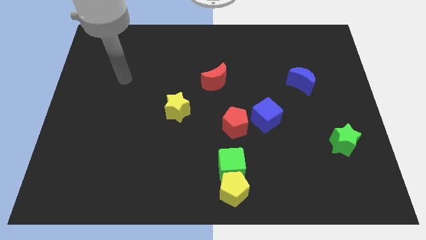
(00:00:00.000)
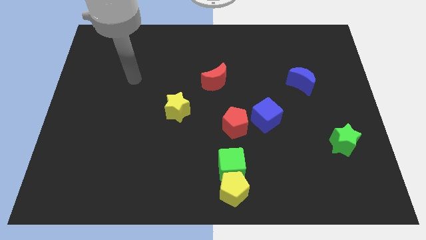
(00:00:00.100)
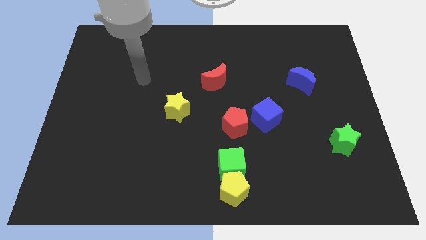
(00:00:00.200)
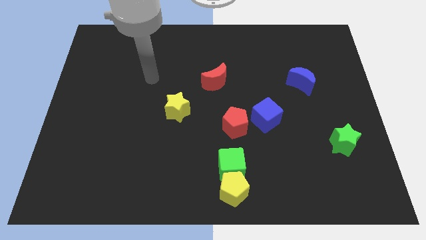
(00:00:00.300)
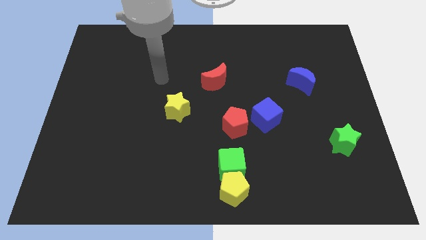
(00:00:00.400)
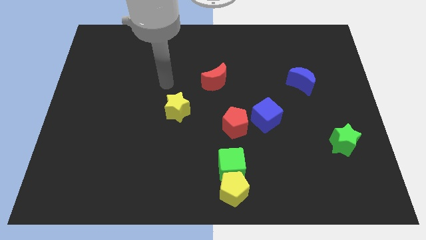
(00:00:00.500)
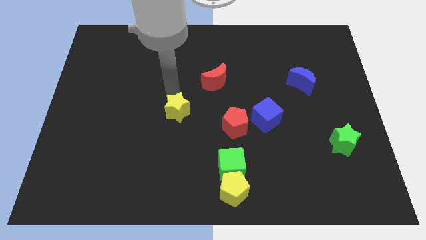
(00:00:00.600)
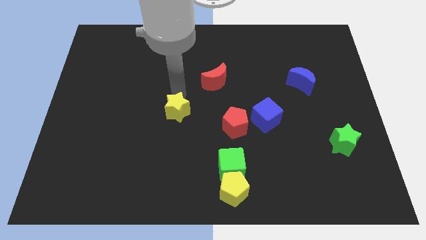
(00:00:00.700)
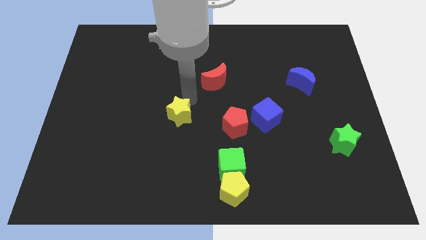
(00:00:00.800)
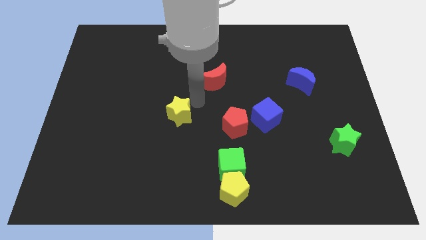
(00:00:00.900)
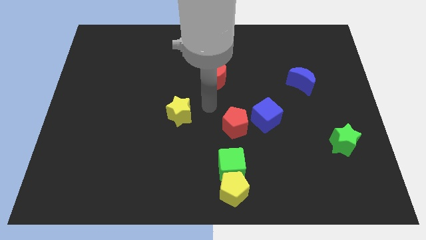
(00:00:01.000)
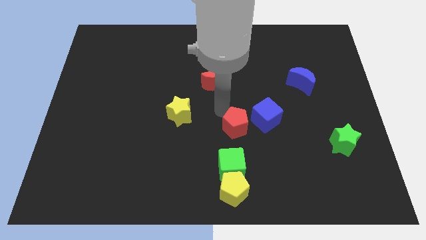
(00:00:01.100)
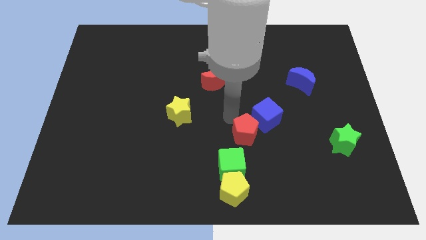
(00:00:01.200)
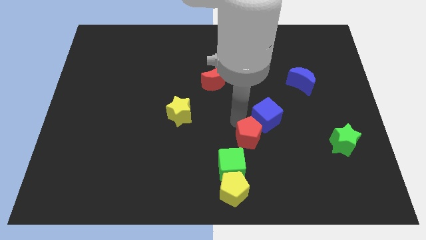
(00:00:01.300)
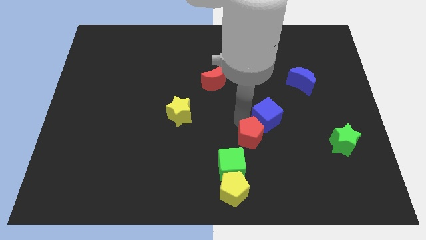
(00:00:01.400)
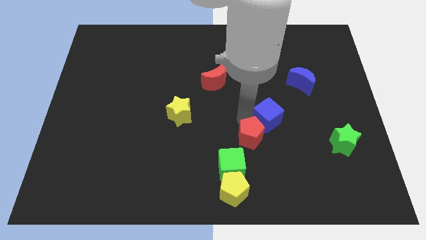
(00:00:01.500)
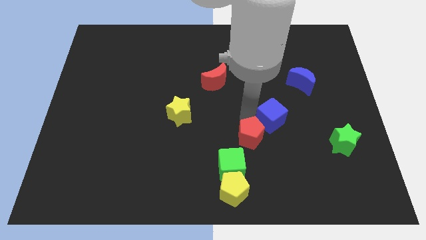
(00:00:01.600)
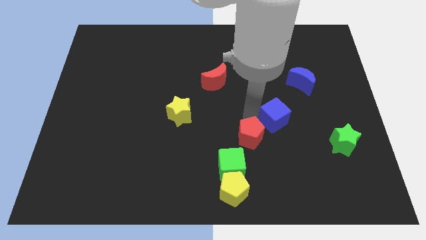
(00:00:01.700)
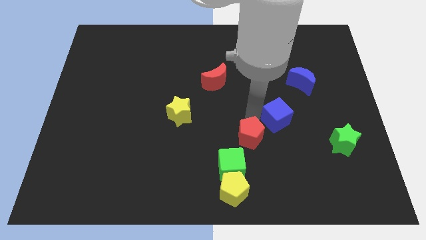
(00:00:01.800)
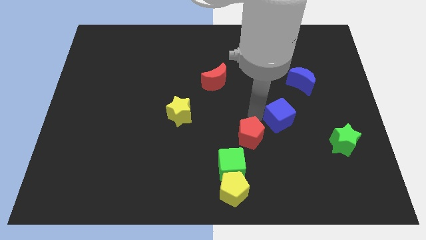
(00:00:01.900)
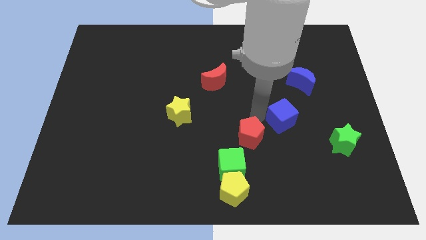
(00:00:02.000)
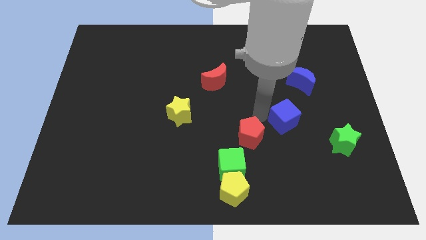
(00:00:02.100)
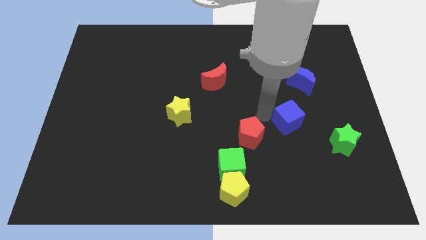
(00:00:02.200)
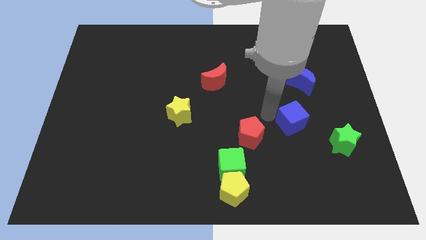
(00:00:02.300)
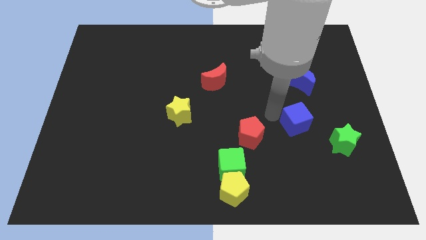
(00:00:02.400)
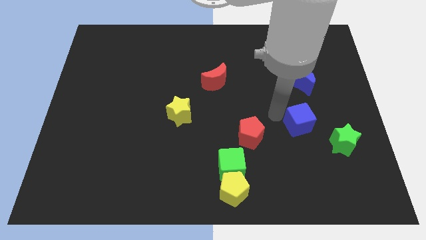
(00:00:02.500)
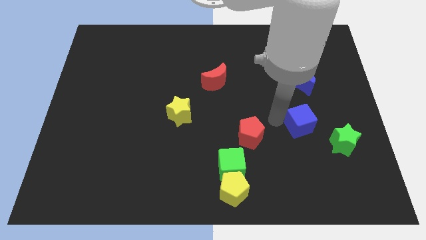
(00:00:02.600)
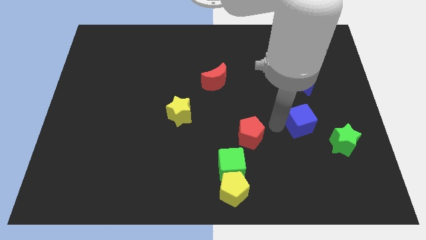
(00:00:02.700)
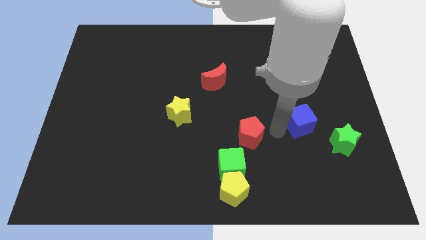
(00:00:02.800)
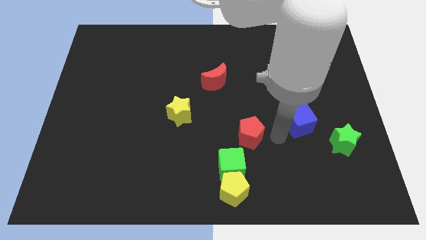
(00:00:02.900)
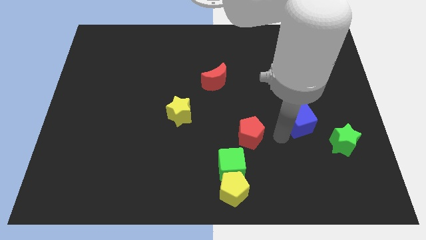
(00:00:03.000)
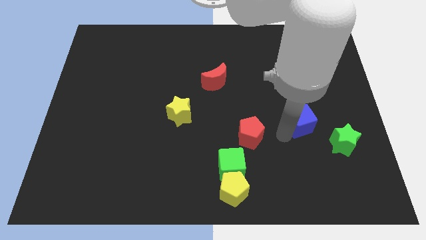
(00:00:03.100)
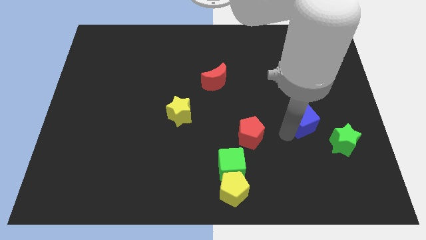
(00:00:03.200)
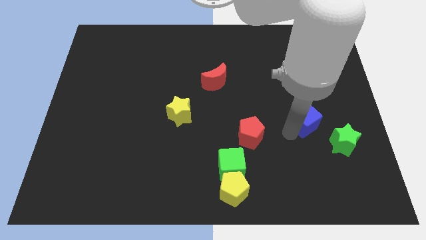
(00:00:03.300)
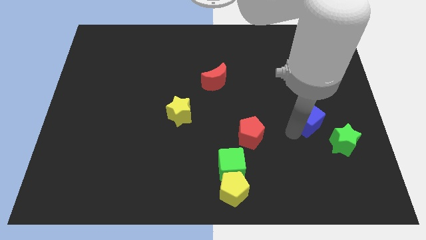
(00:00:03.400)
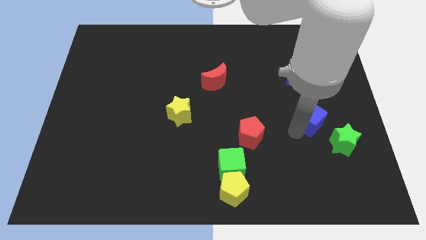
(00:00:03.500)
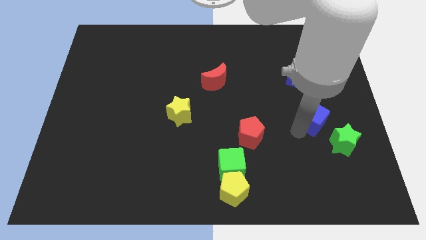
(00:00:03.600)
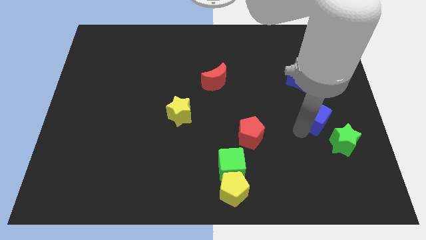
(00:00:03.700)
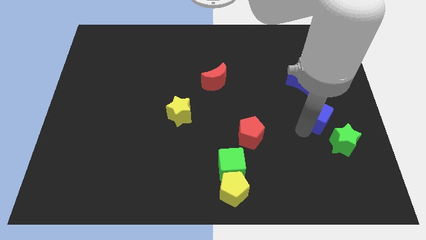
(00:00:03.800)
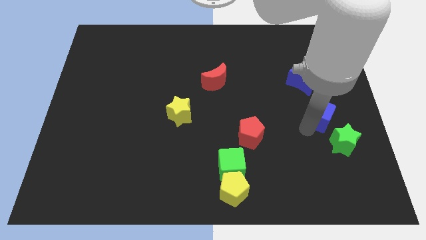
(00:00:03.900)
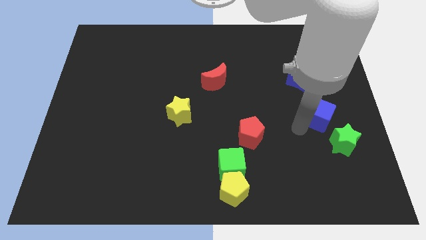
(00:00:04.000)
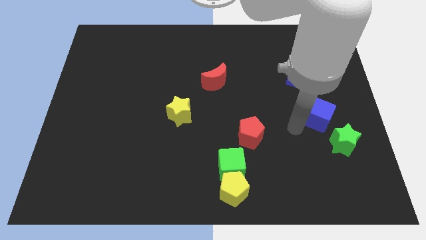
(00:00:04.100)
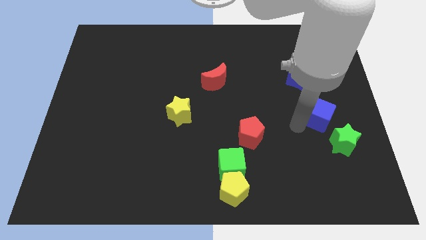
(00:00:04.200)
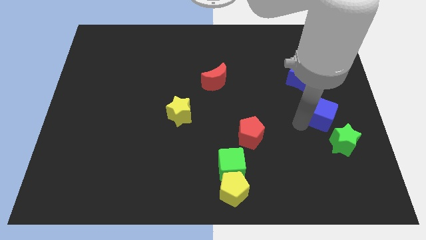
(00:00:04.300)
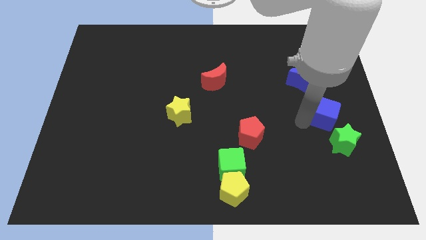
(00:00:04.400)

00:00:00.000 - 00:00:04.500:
slide the blue cube to the right side

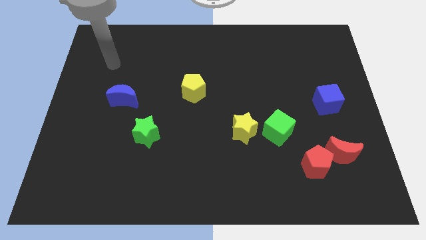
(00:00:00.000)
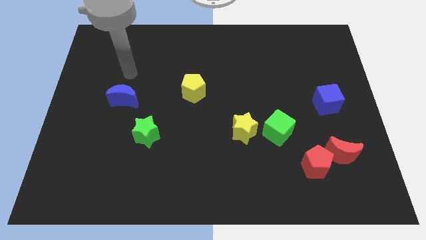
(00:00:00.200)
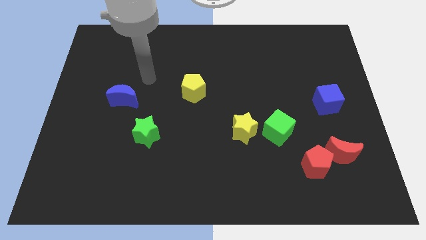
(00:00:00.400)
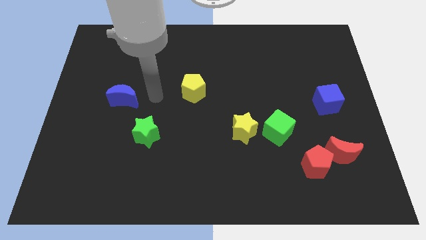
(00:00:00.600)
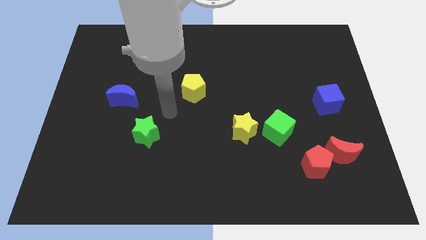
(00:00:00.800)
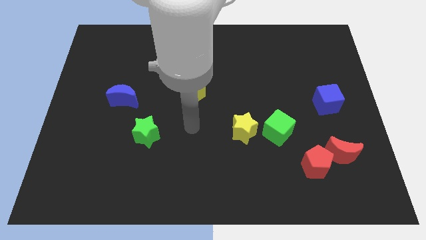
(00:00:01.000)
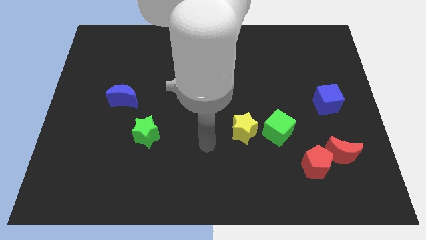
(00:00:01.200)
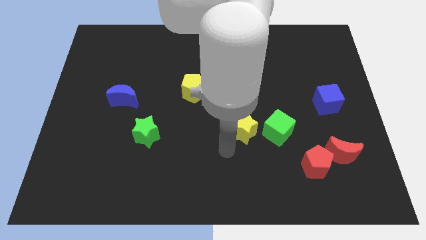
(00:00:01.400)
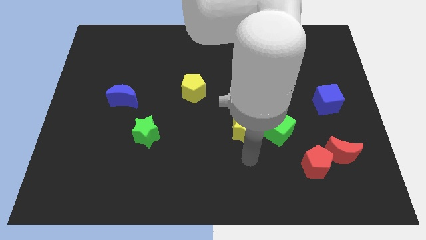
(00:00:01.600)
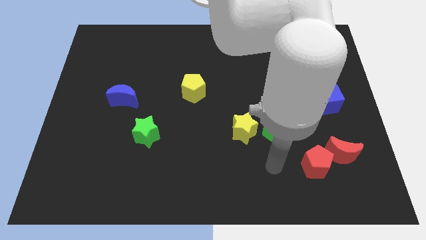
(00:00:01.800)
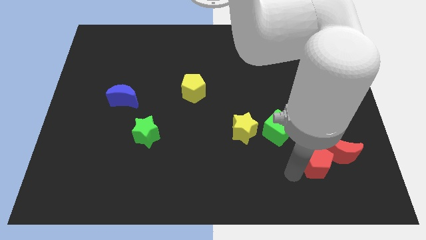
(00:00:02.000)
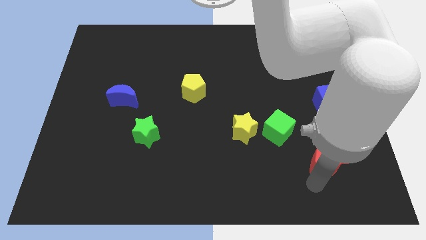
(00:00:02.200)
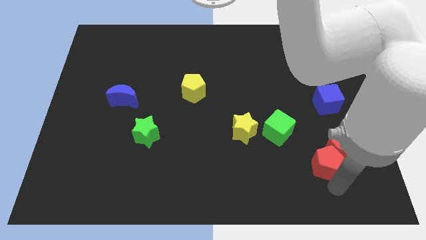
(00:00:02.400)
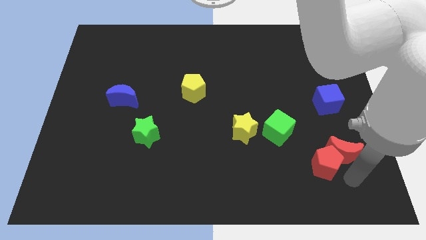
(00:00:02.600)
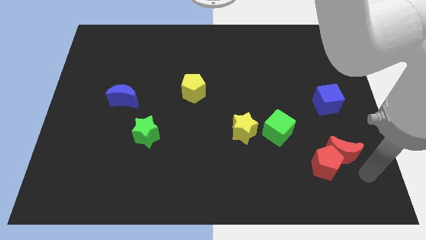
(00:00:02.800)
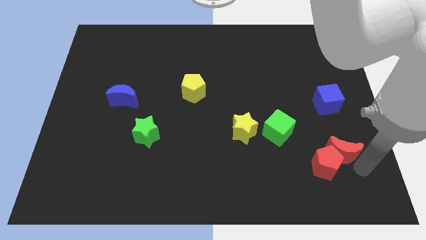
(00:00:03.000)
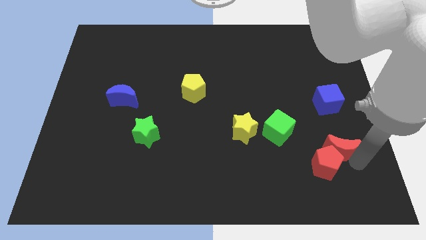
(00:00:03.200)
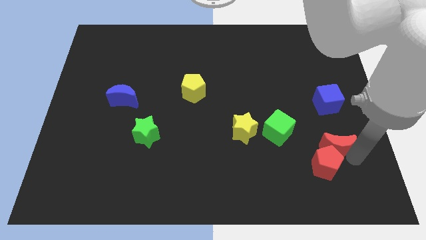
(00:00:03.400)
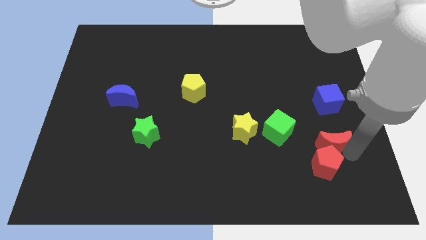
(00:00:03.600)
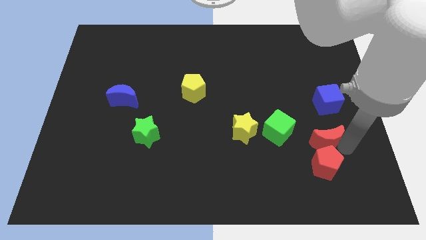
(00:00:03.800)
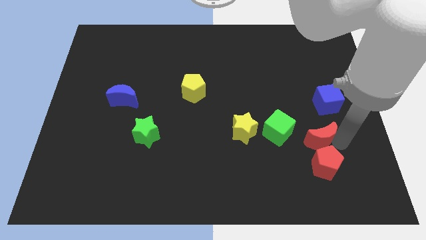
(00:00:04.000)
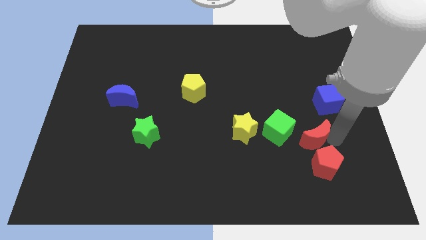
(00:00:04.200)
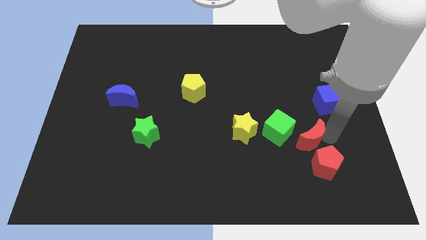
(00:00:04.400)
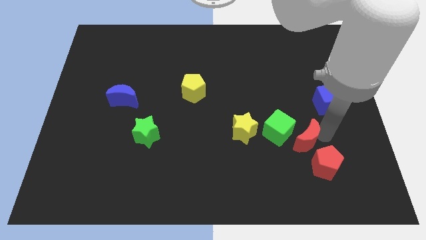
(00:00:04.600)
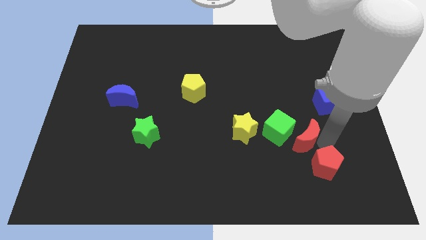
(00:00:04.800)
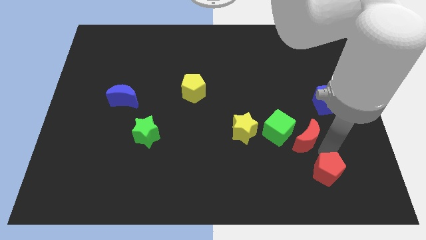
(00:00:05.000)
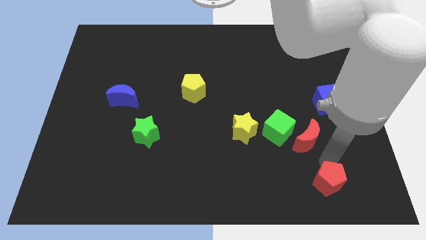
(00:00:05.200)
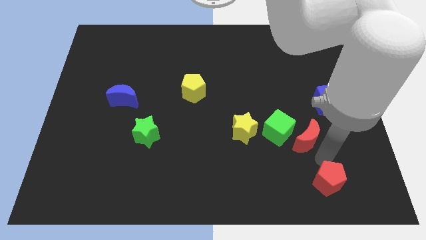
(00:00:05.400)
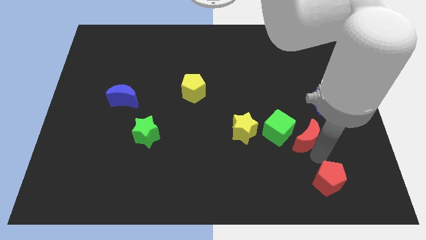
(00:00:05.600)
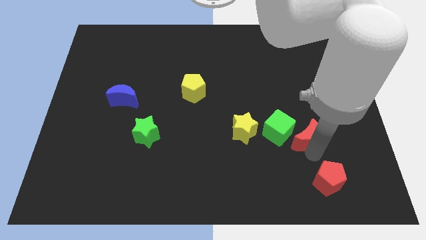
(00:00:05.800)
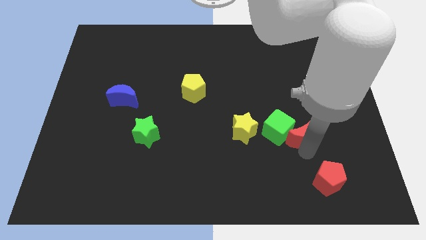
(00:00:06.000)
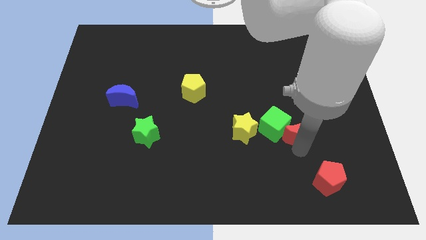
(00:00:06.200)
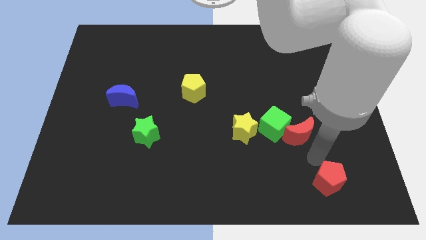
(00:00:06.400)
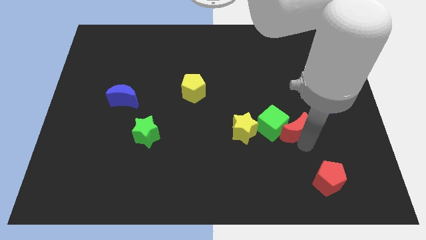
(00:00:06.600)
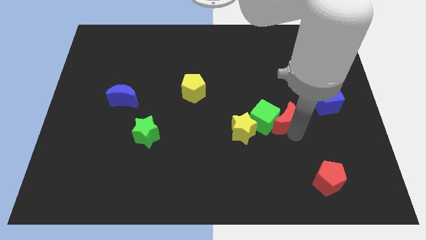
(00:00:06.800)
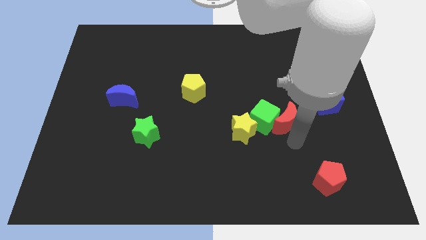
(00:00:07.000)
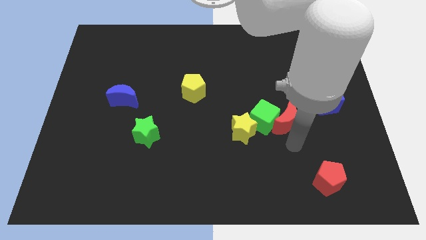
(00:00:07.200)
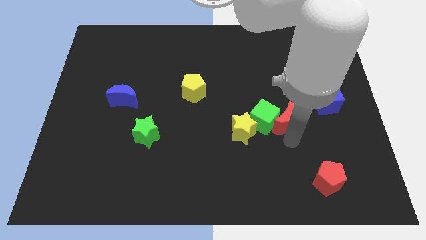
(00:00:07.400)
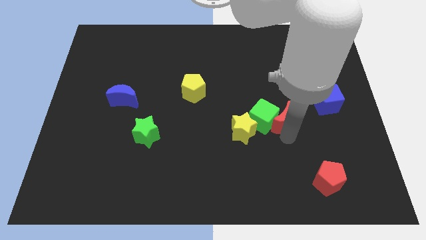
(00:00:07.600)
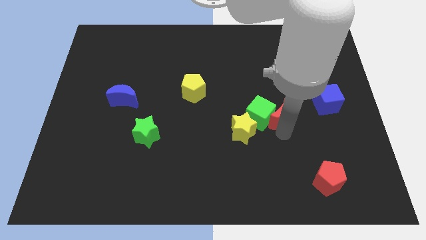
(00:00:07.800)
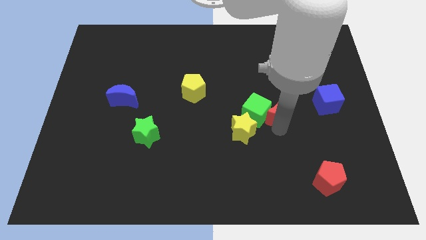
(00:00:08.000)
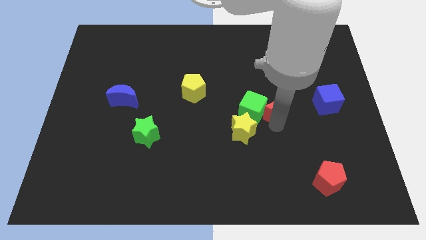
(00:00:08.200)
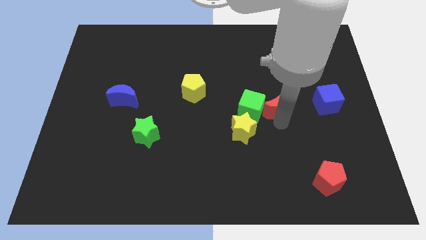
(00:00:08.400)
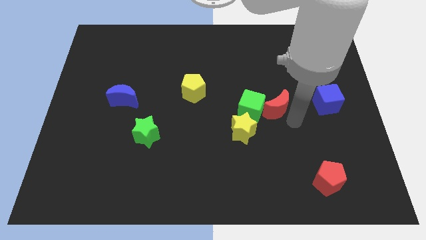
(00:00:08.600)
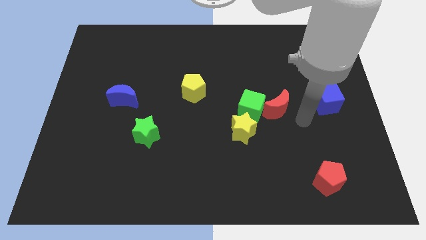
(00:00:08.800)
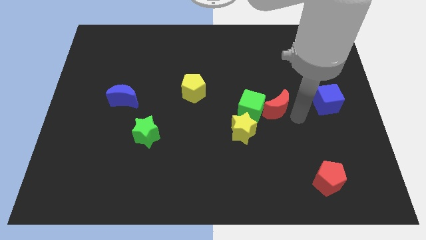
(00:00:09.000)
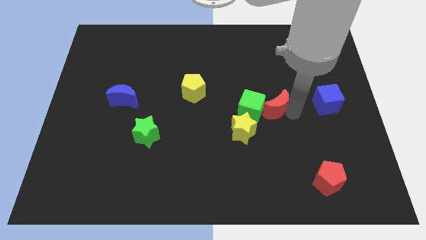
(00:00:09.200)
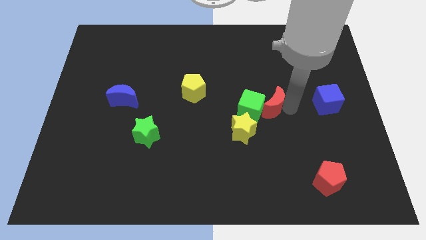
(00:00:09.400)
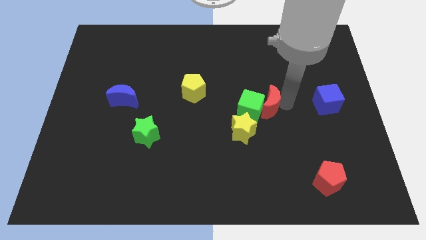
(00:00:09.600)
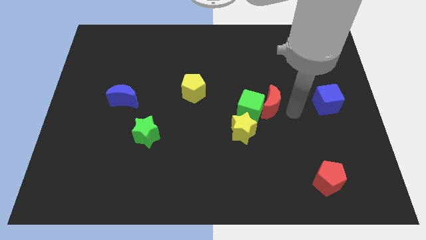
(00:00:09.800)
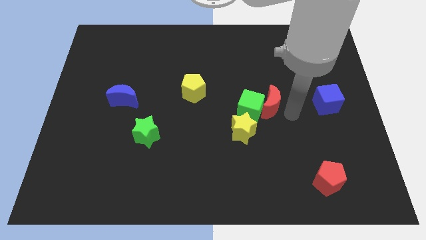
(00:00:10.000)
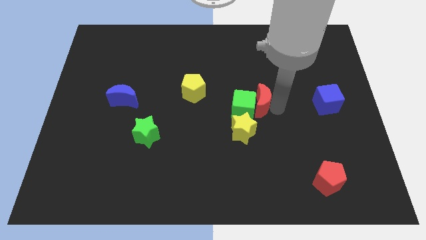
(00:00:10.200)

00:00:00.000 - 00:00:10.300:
put the red moon to the middle of the board
